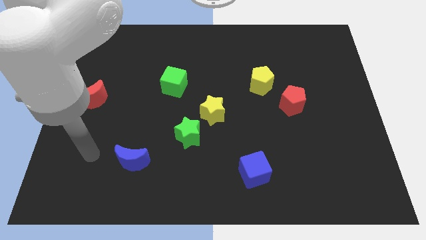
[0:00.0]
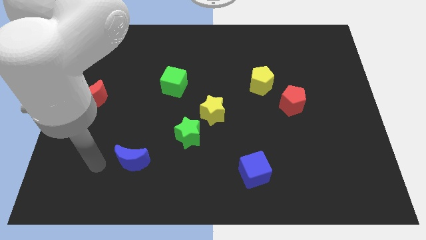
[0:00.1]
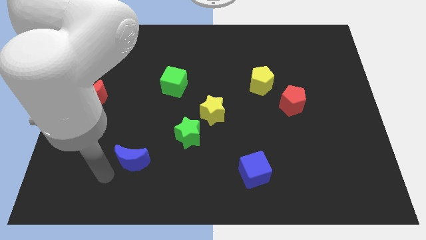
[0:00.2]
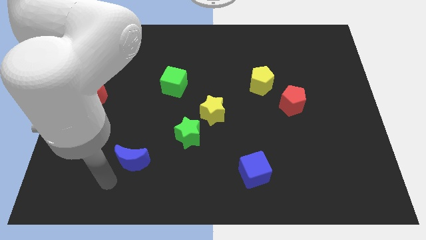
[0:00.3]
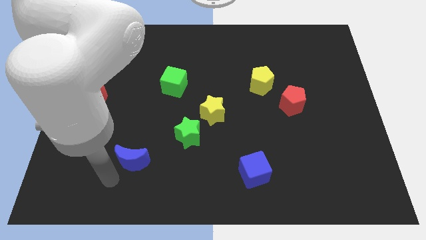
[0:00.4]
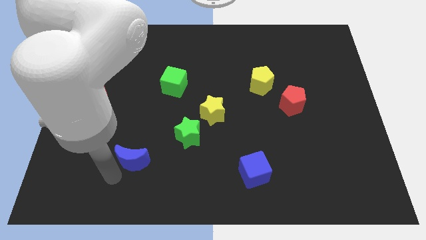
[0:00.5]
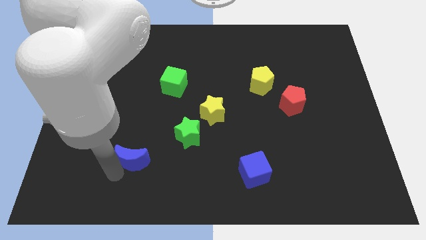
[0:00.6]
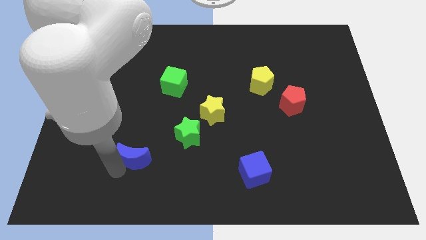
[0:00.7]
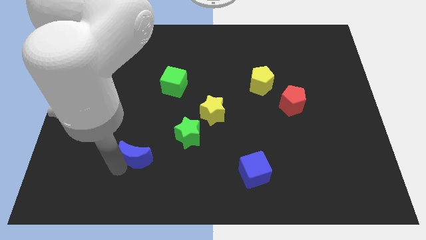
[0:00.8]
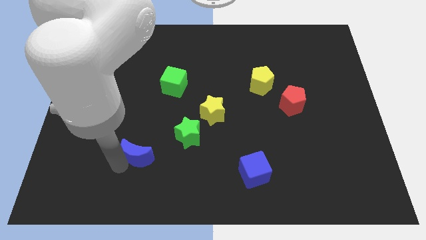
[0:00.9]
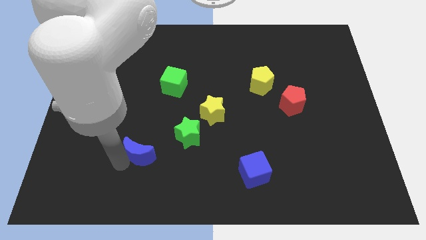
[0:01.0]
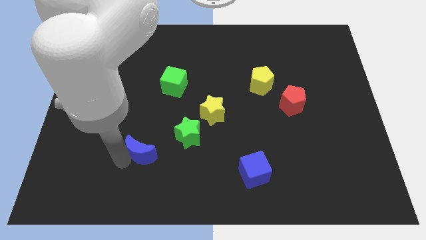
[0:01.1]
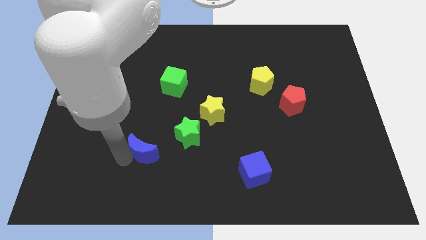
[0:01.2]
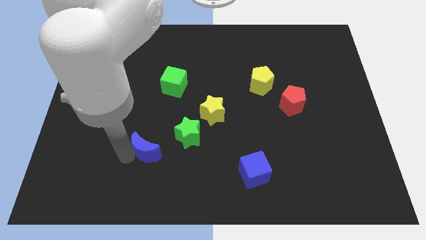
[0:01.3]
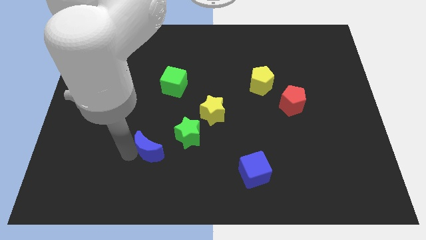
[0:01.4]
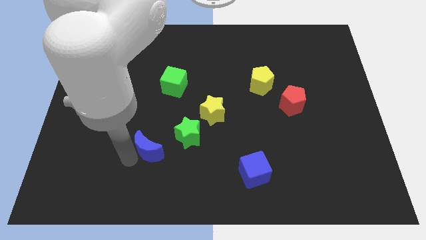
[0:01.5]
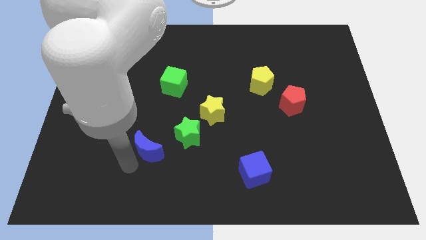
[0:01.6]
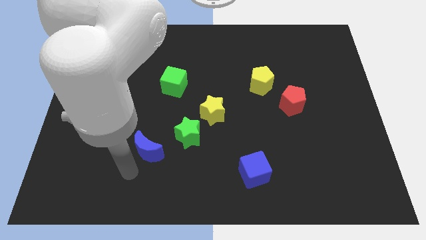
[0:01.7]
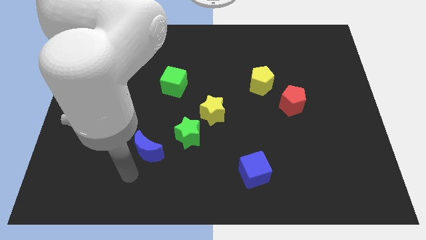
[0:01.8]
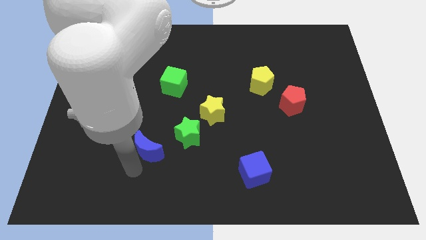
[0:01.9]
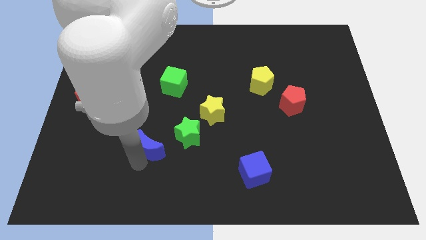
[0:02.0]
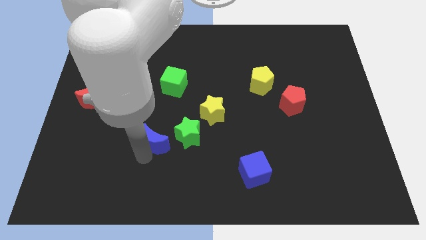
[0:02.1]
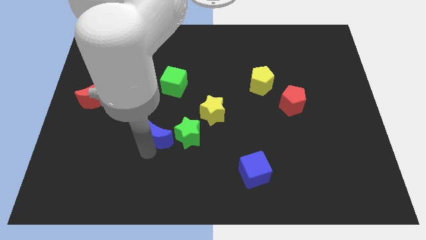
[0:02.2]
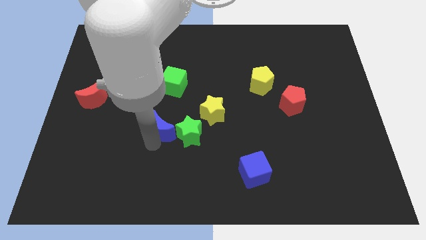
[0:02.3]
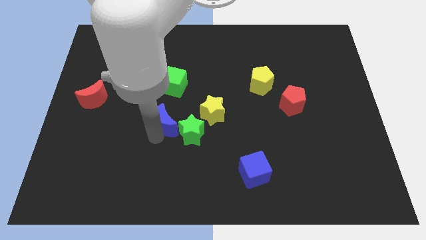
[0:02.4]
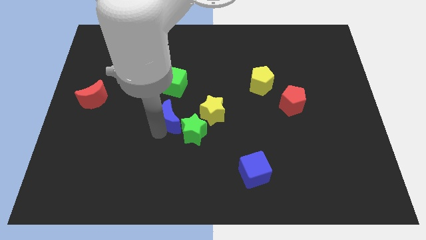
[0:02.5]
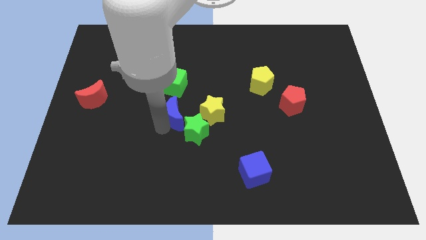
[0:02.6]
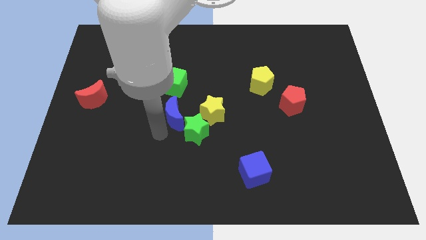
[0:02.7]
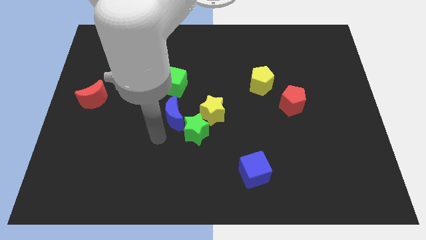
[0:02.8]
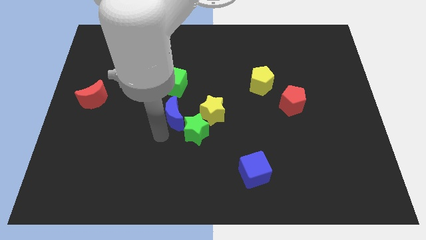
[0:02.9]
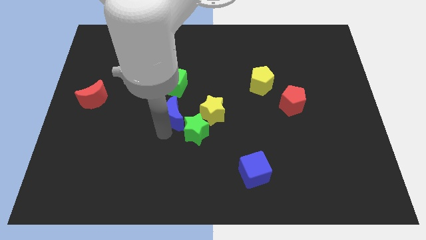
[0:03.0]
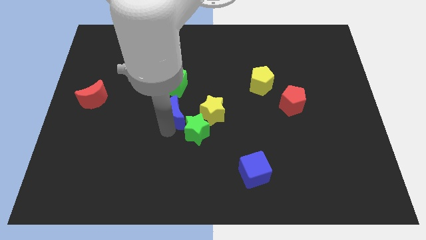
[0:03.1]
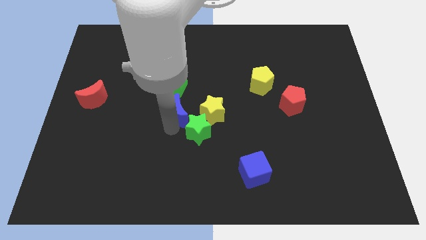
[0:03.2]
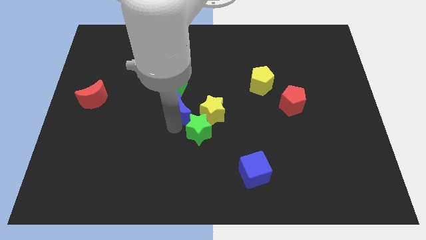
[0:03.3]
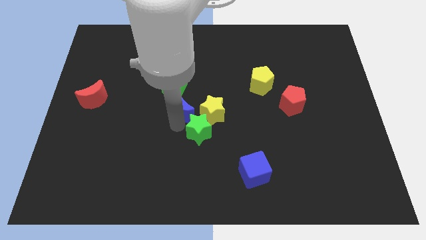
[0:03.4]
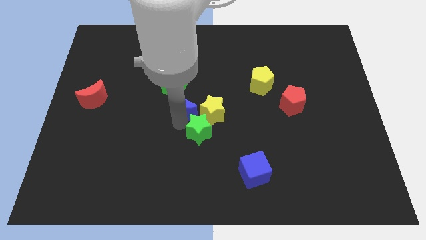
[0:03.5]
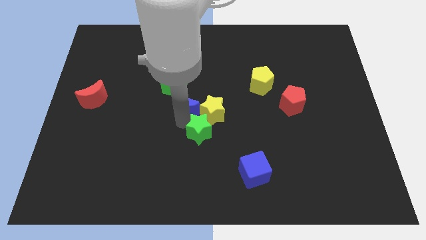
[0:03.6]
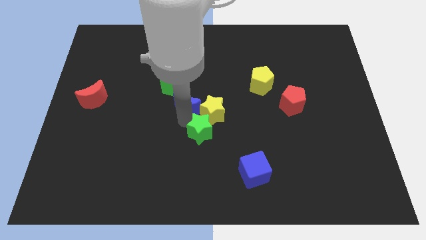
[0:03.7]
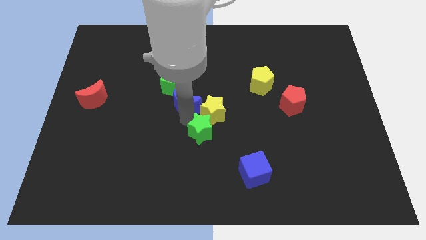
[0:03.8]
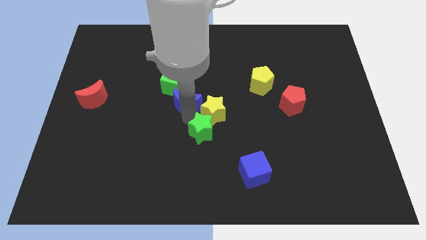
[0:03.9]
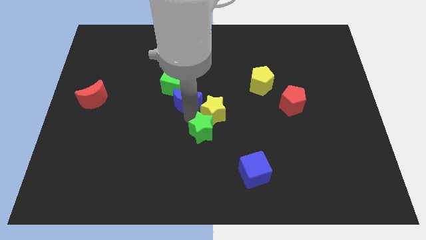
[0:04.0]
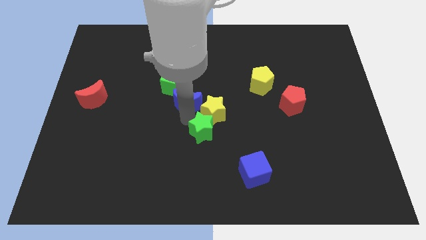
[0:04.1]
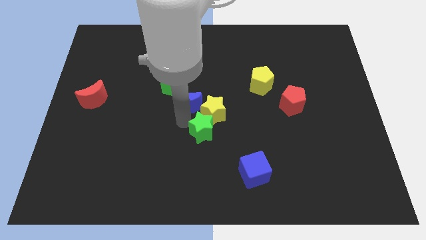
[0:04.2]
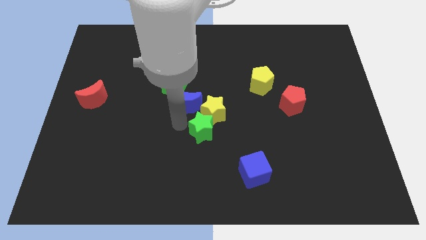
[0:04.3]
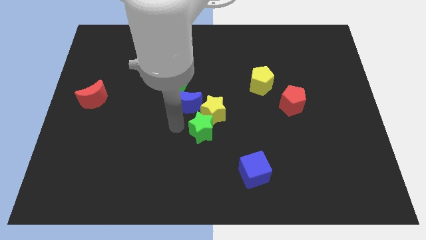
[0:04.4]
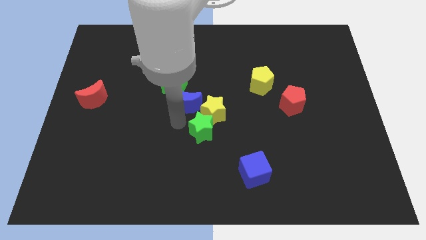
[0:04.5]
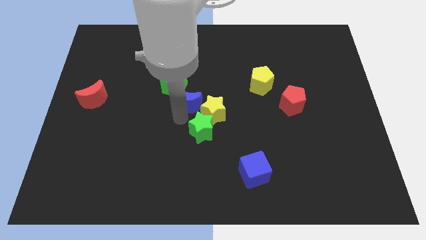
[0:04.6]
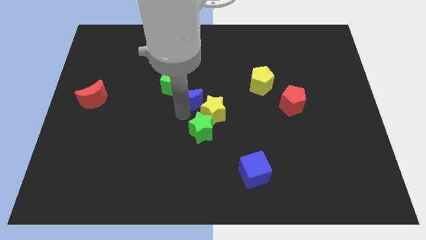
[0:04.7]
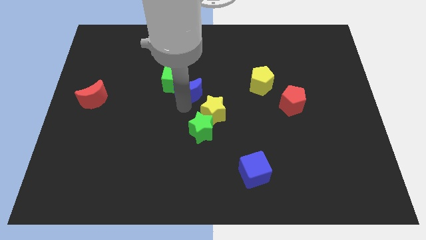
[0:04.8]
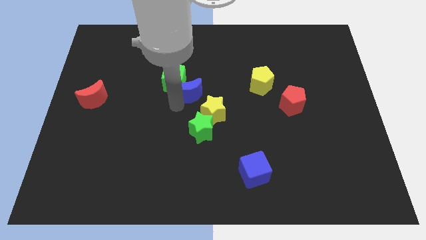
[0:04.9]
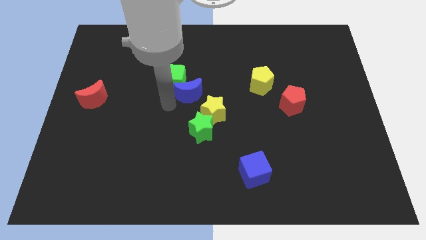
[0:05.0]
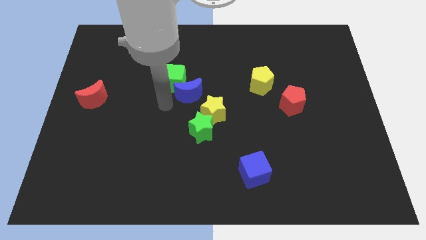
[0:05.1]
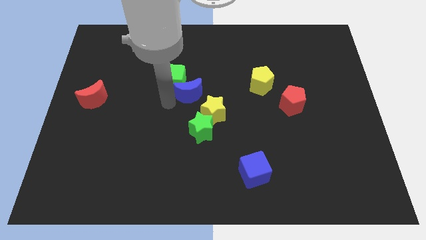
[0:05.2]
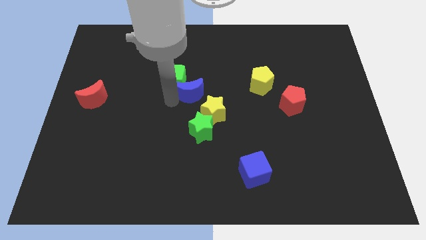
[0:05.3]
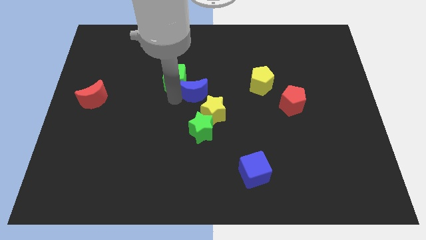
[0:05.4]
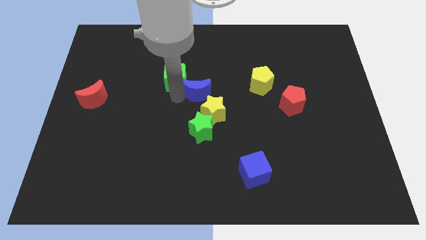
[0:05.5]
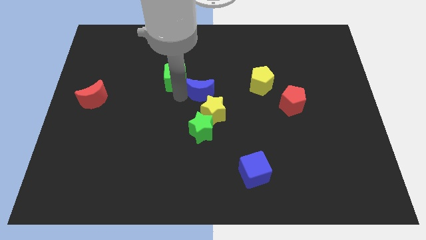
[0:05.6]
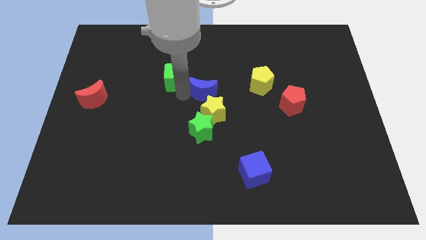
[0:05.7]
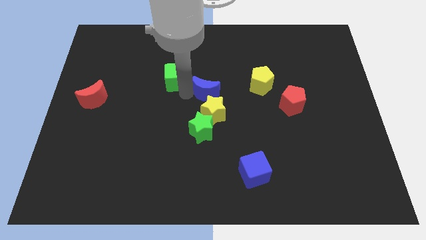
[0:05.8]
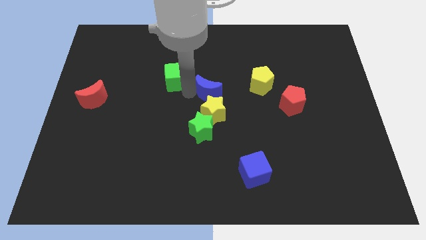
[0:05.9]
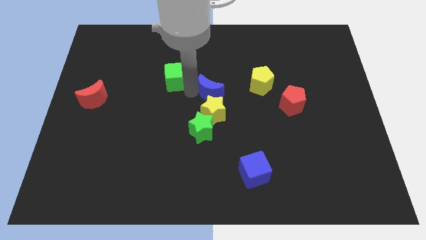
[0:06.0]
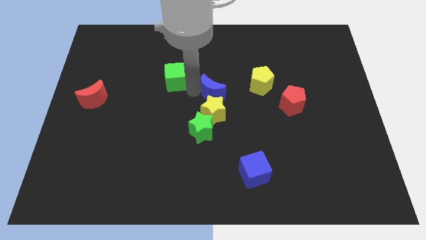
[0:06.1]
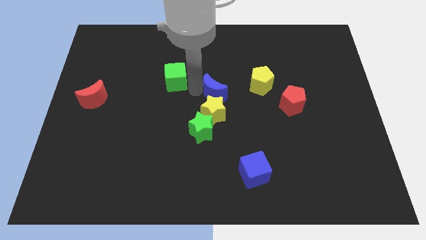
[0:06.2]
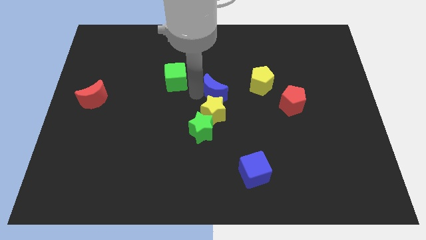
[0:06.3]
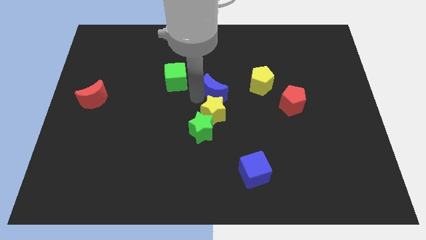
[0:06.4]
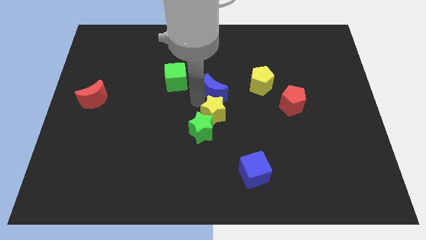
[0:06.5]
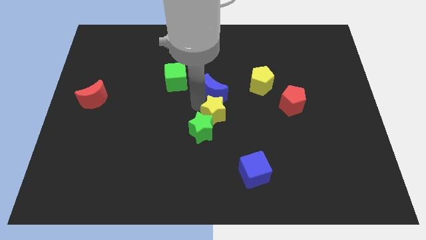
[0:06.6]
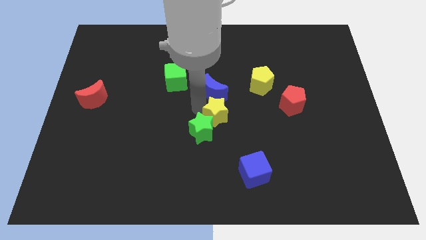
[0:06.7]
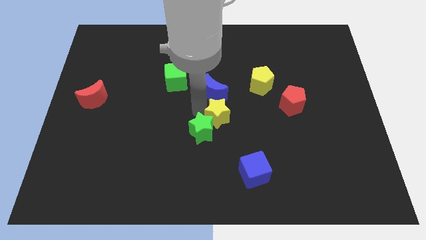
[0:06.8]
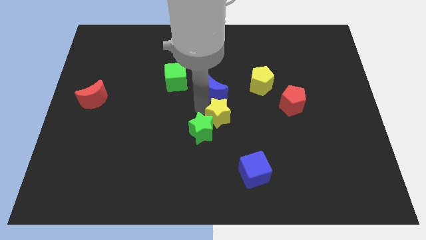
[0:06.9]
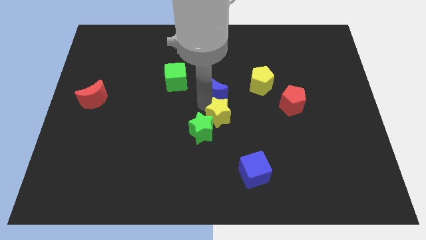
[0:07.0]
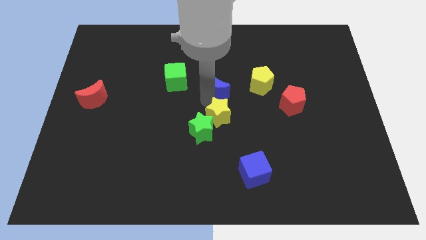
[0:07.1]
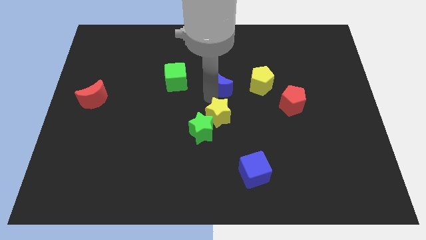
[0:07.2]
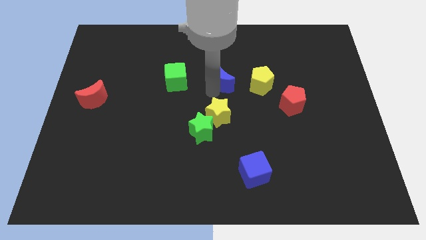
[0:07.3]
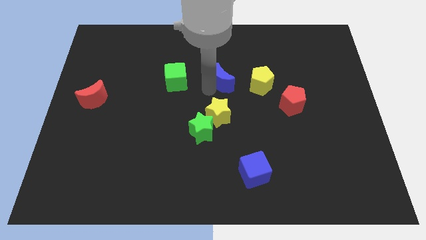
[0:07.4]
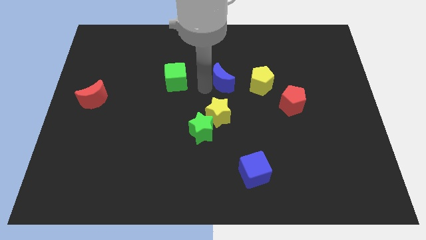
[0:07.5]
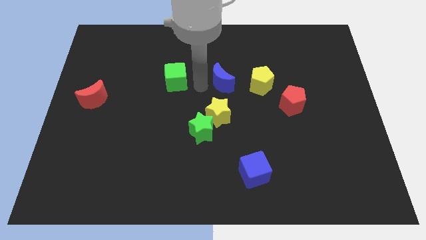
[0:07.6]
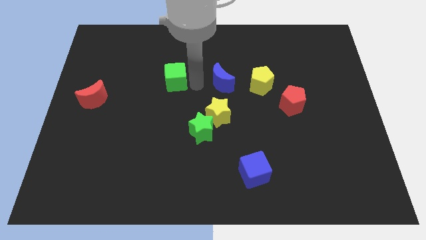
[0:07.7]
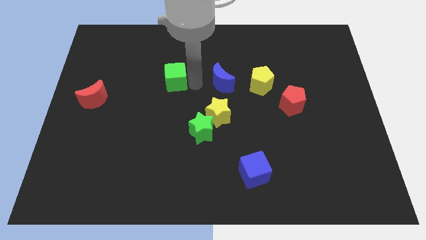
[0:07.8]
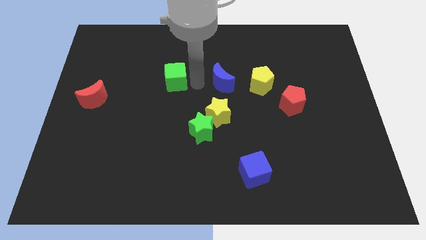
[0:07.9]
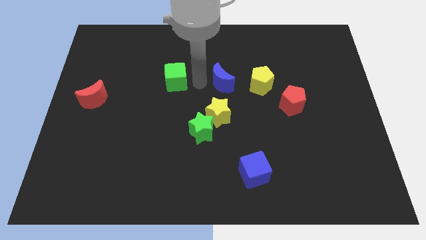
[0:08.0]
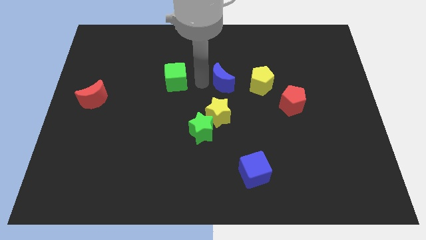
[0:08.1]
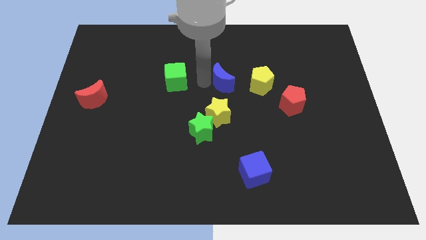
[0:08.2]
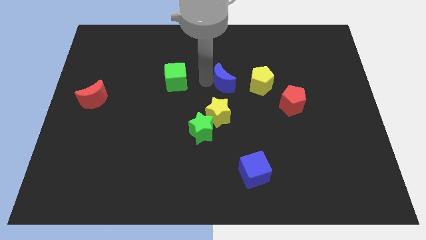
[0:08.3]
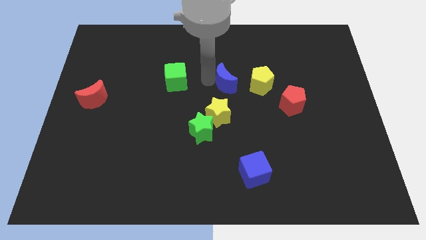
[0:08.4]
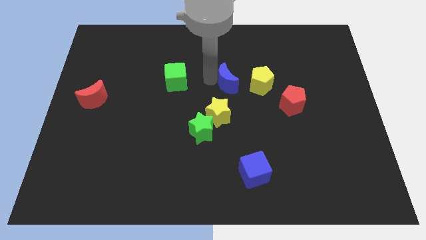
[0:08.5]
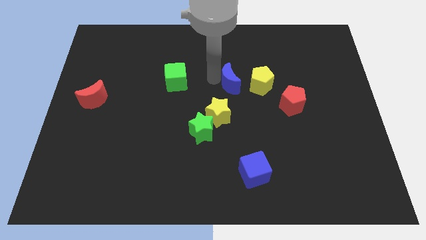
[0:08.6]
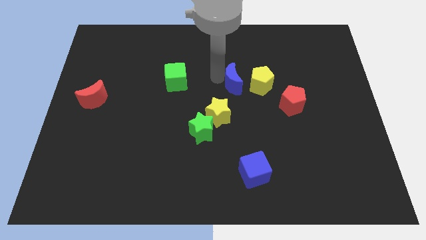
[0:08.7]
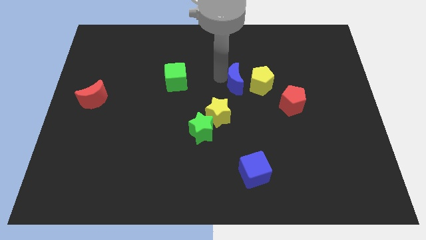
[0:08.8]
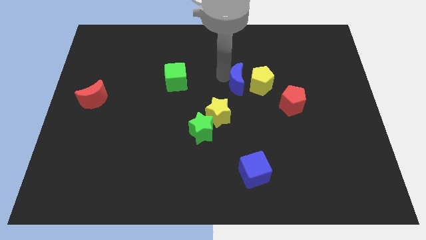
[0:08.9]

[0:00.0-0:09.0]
slide the blue moon close to the yellow pentagon
